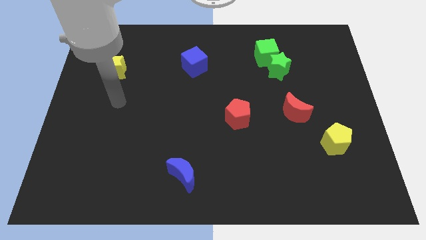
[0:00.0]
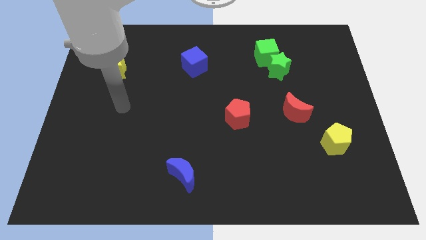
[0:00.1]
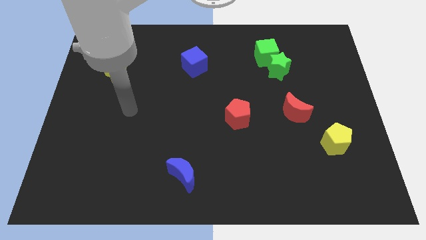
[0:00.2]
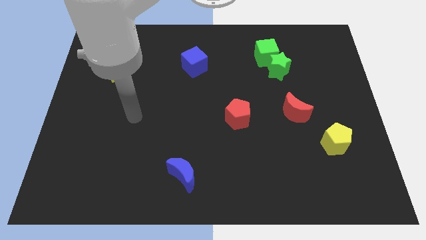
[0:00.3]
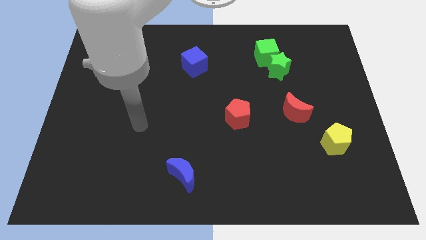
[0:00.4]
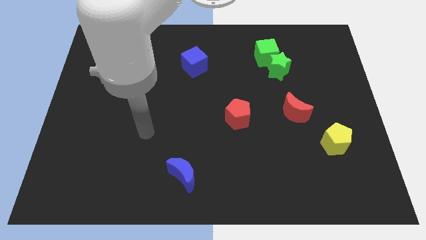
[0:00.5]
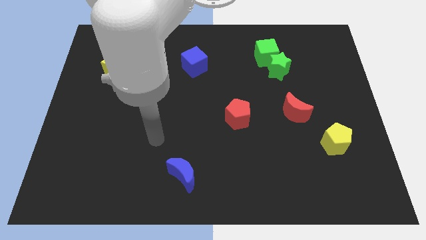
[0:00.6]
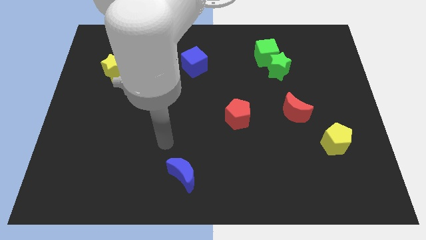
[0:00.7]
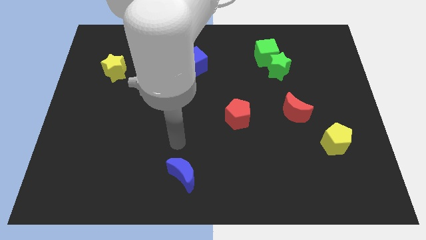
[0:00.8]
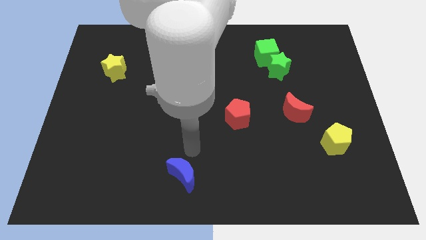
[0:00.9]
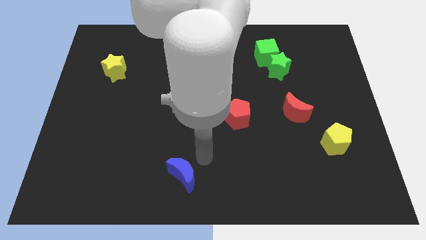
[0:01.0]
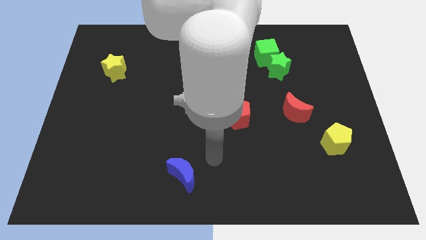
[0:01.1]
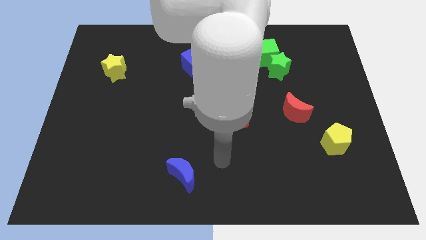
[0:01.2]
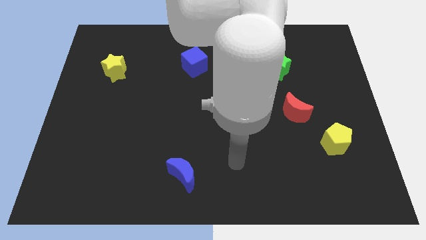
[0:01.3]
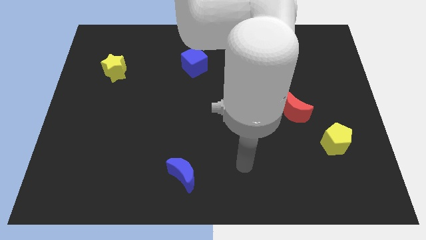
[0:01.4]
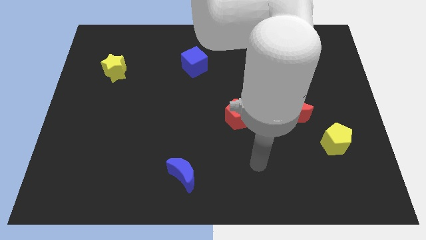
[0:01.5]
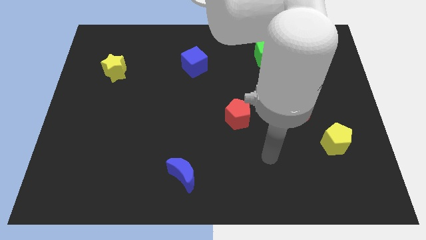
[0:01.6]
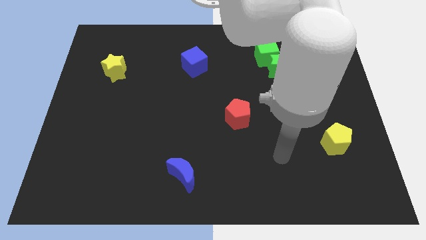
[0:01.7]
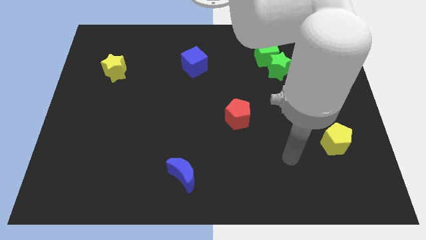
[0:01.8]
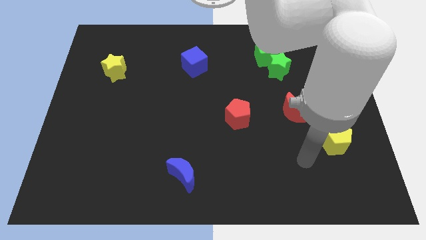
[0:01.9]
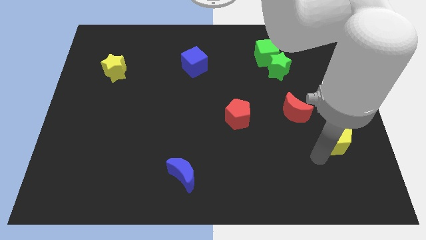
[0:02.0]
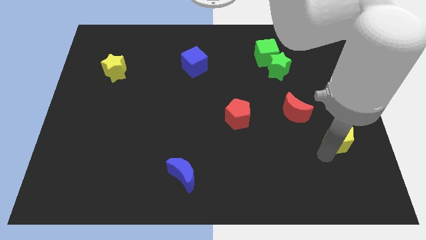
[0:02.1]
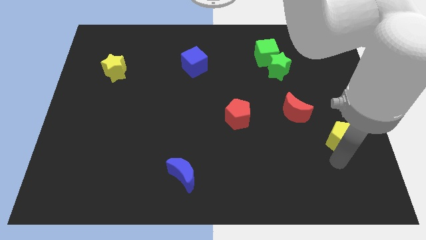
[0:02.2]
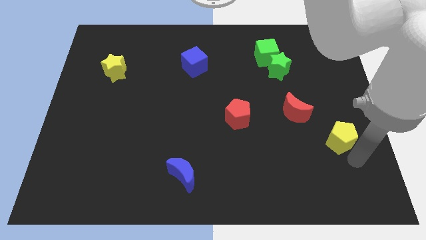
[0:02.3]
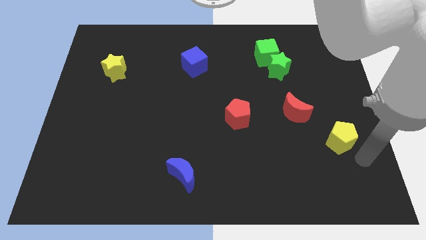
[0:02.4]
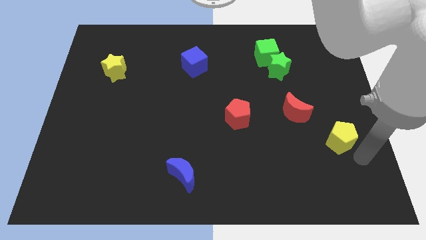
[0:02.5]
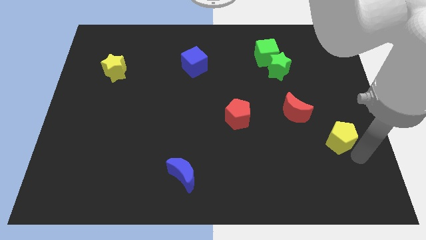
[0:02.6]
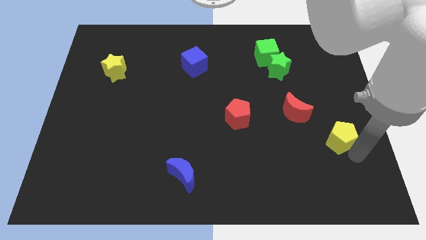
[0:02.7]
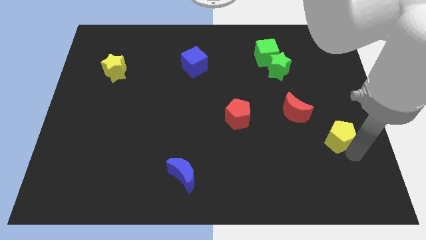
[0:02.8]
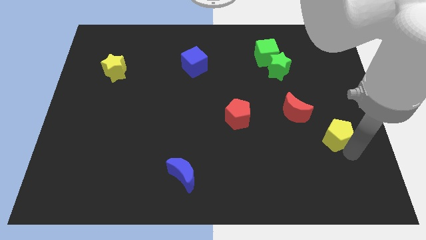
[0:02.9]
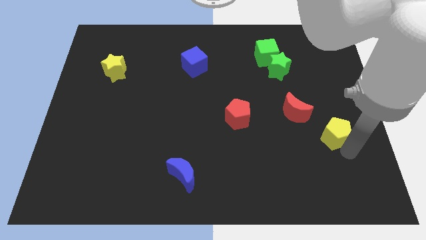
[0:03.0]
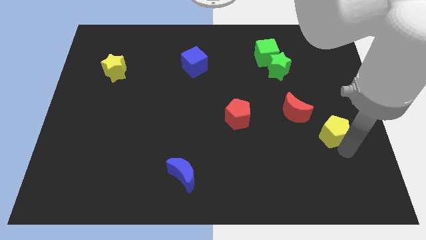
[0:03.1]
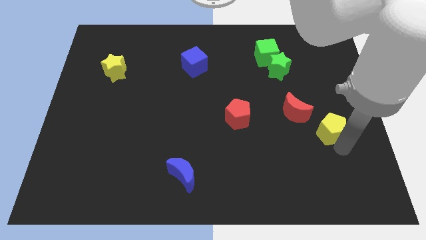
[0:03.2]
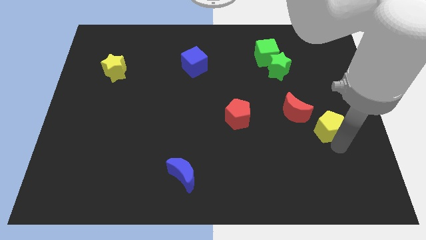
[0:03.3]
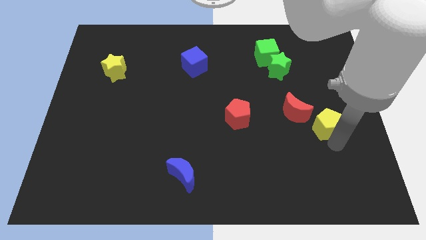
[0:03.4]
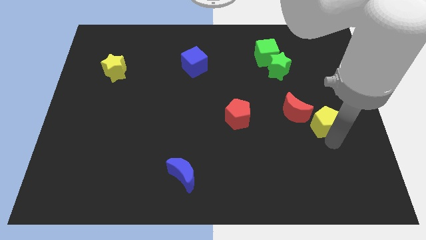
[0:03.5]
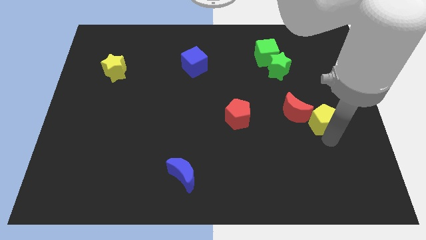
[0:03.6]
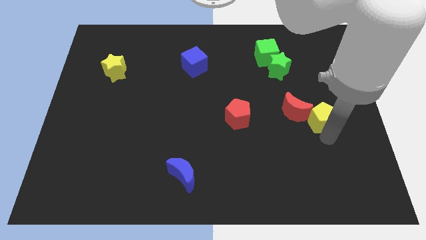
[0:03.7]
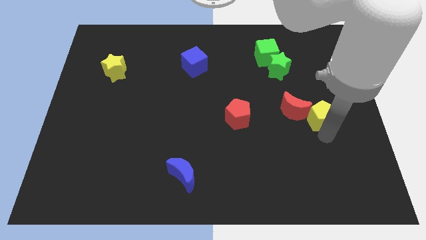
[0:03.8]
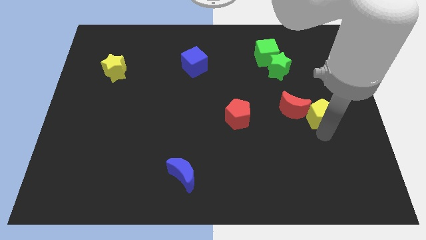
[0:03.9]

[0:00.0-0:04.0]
slide the yellow pentagon somewhat up

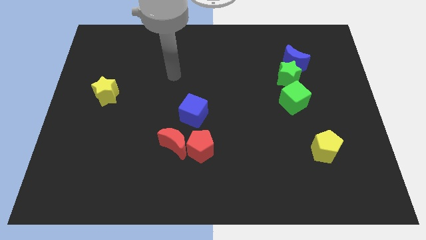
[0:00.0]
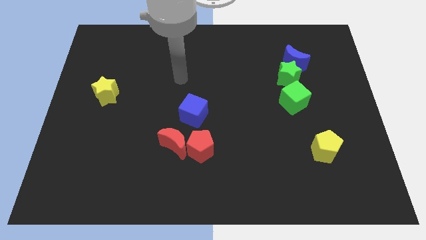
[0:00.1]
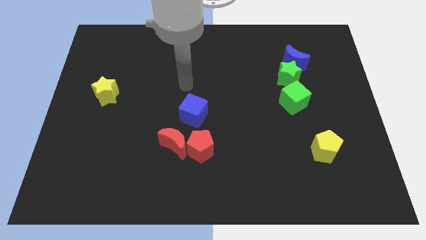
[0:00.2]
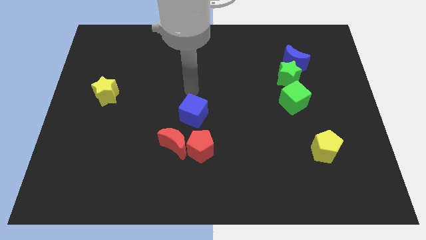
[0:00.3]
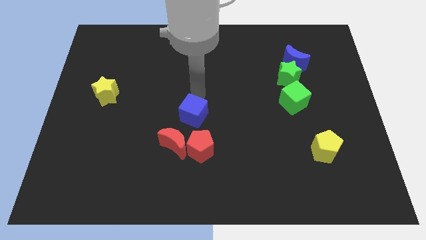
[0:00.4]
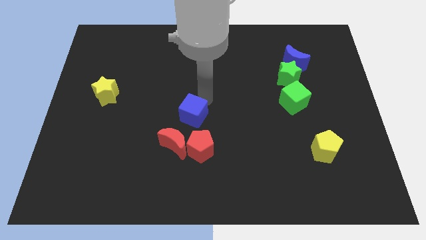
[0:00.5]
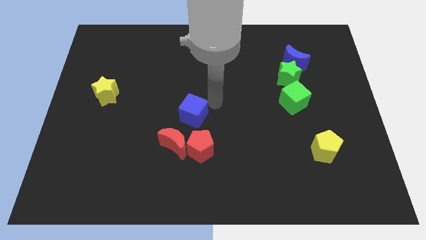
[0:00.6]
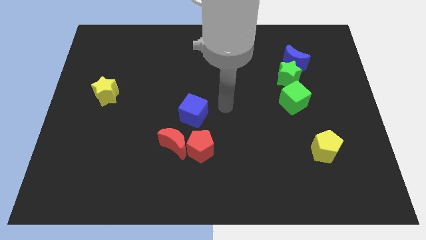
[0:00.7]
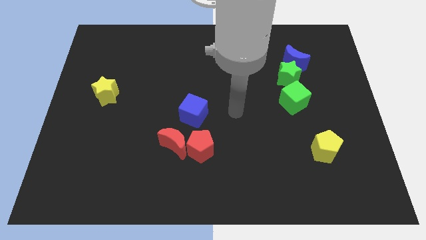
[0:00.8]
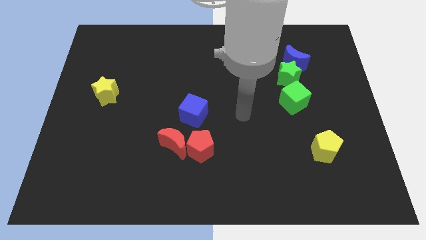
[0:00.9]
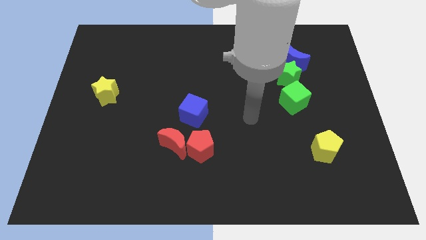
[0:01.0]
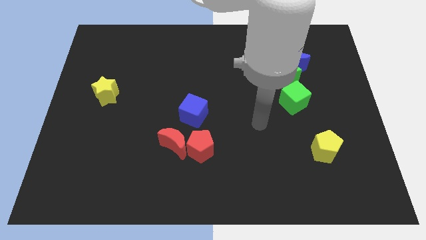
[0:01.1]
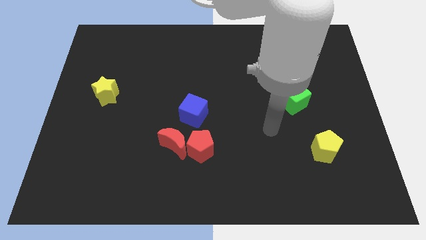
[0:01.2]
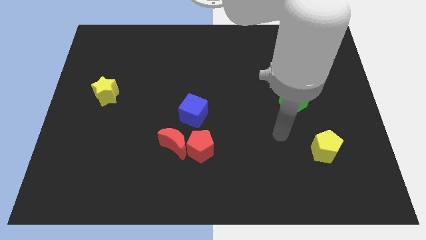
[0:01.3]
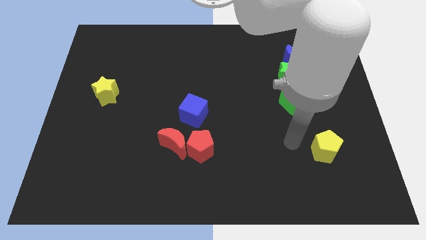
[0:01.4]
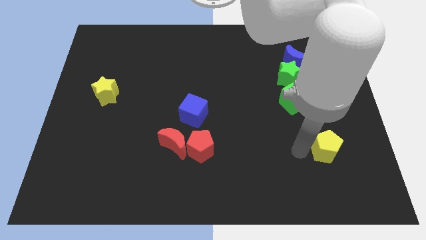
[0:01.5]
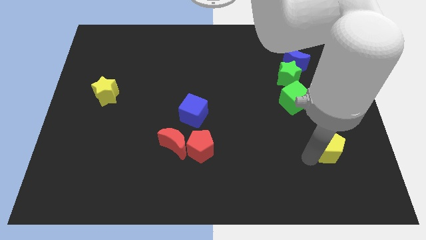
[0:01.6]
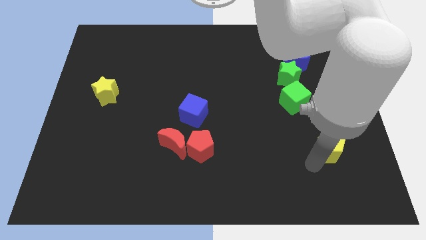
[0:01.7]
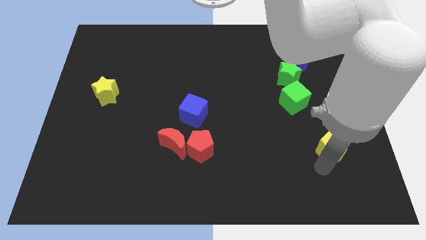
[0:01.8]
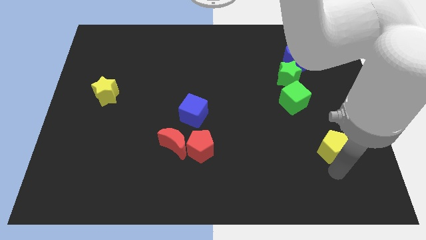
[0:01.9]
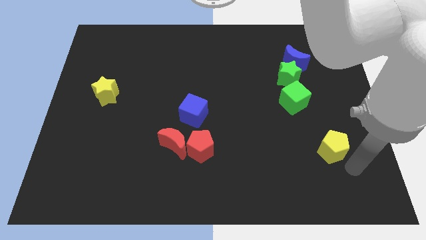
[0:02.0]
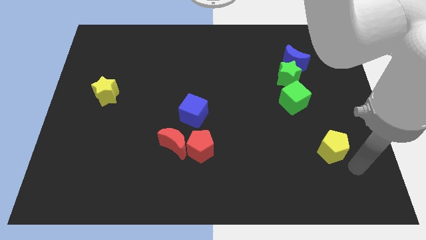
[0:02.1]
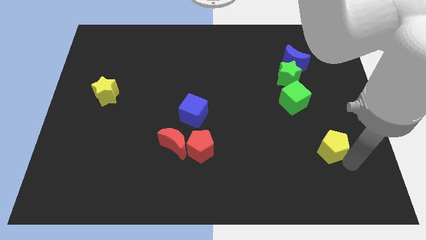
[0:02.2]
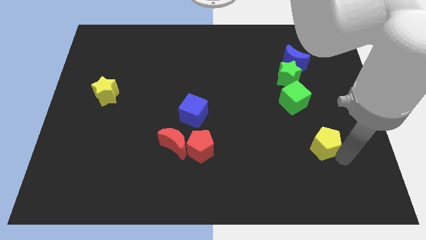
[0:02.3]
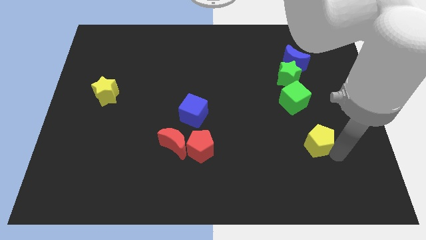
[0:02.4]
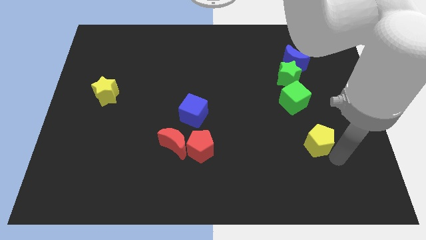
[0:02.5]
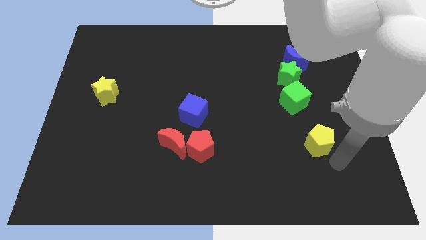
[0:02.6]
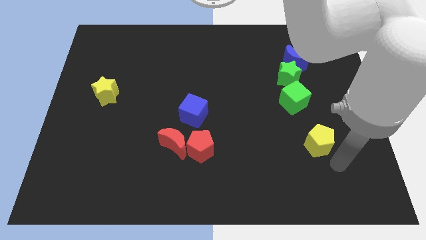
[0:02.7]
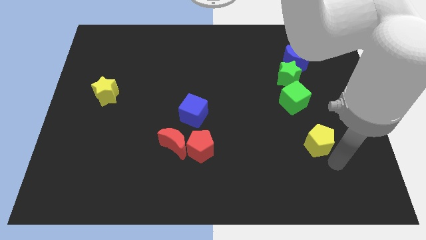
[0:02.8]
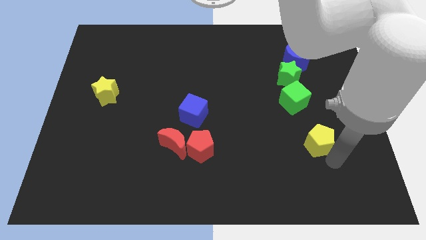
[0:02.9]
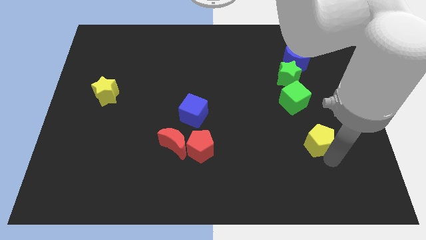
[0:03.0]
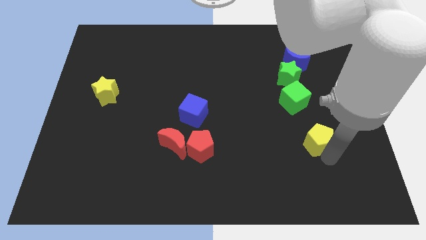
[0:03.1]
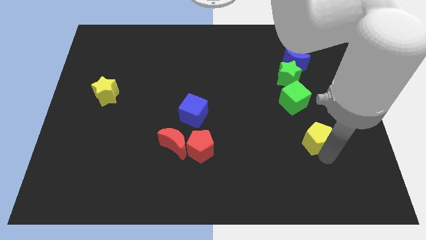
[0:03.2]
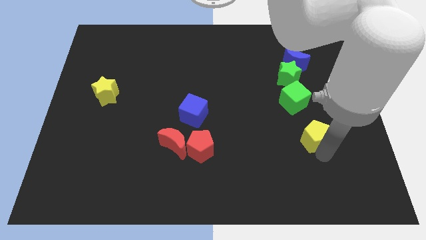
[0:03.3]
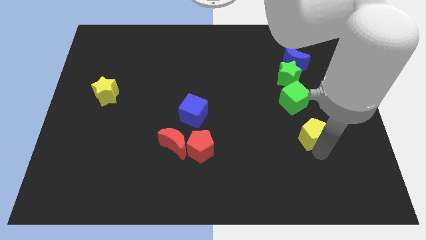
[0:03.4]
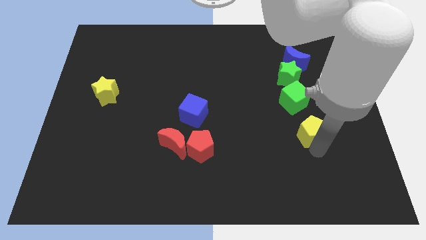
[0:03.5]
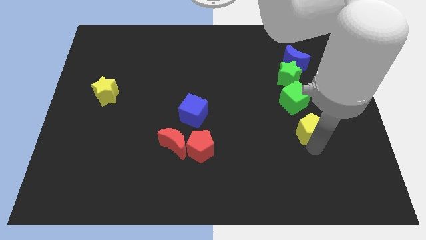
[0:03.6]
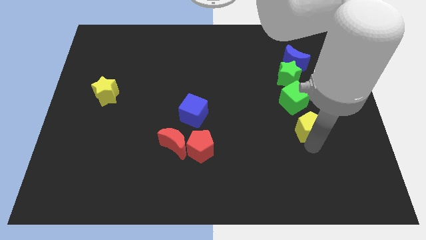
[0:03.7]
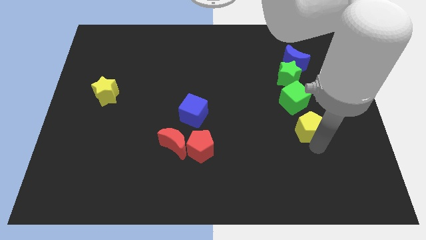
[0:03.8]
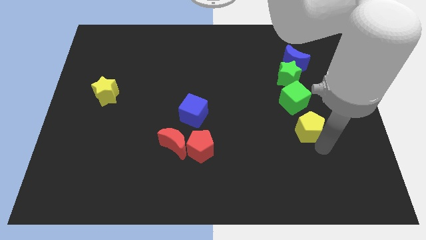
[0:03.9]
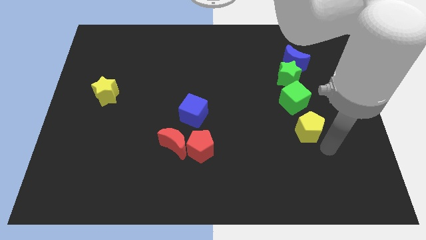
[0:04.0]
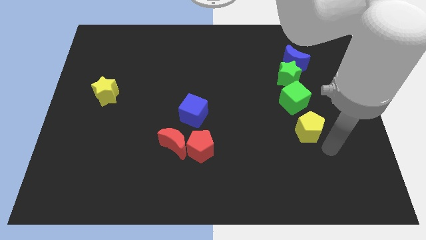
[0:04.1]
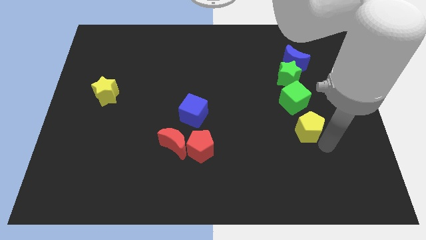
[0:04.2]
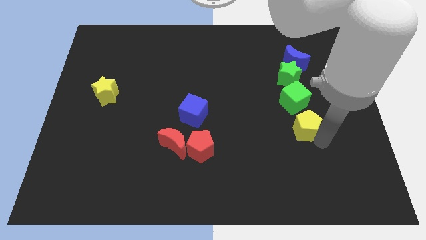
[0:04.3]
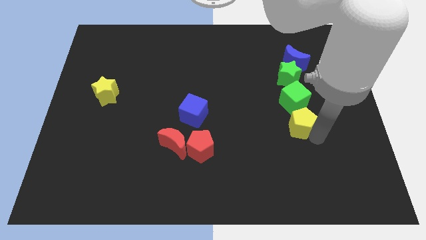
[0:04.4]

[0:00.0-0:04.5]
slide the yellow pentagon a bit upwards and to the left diagonally

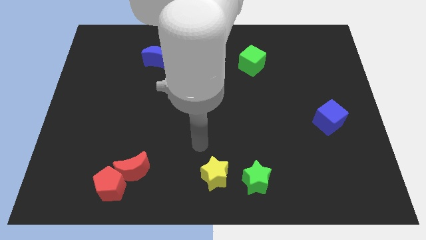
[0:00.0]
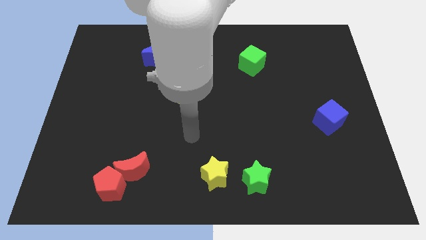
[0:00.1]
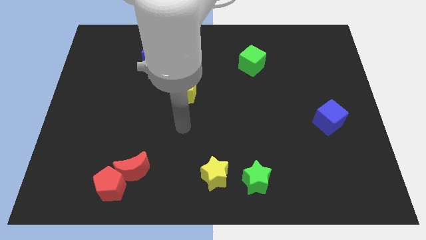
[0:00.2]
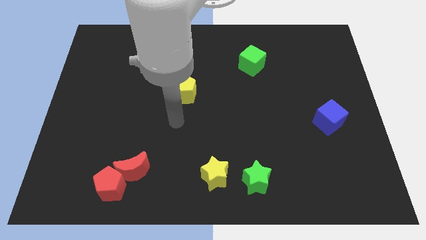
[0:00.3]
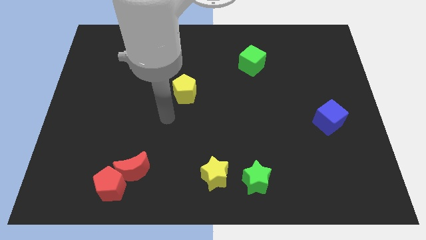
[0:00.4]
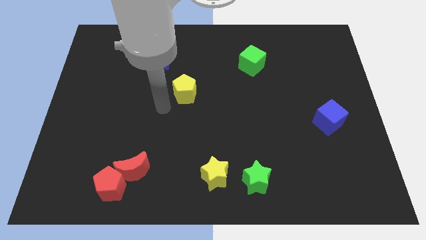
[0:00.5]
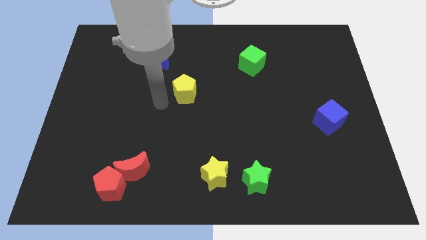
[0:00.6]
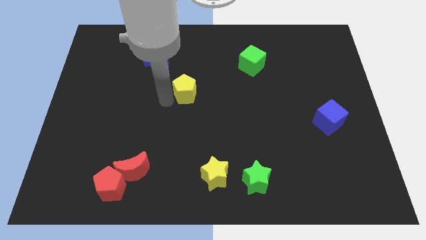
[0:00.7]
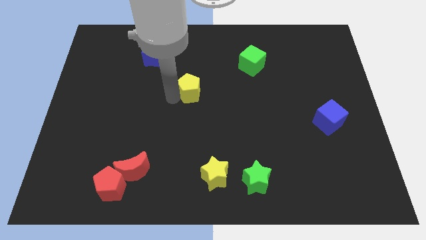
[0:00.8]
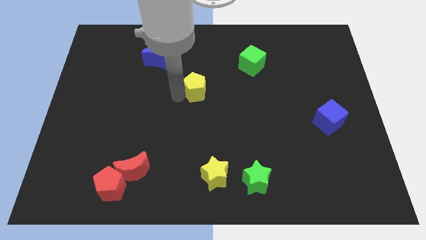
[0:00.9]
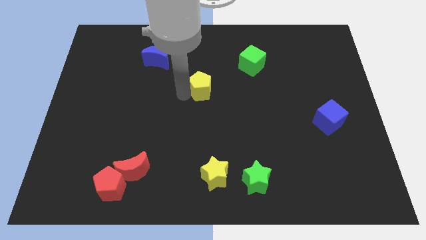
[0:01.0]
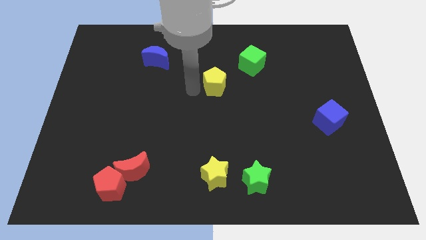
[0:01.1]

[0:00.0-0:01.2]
push the yellow pentagon a little bit right
